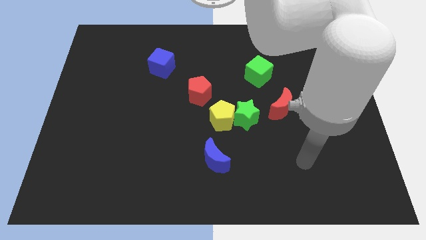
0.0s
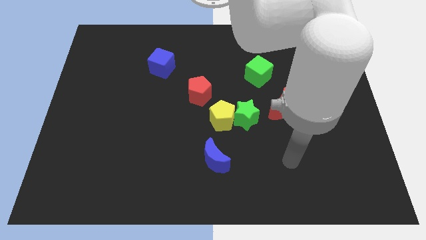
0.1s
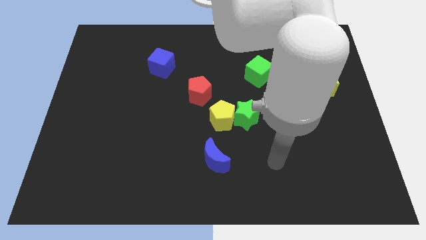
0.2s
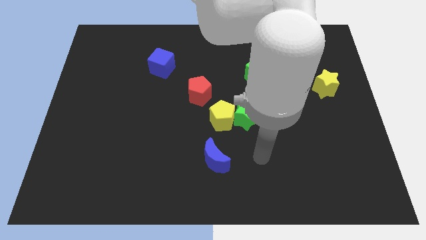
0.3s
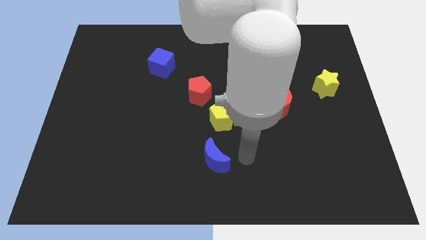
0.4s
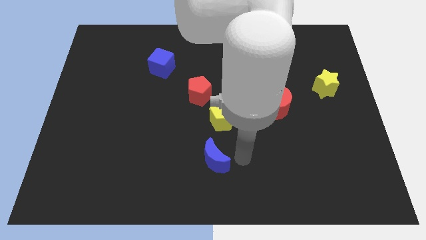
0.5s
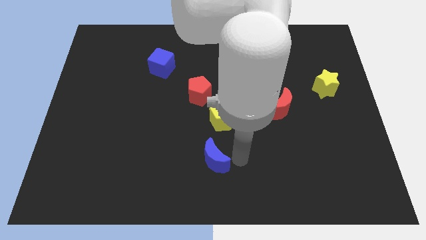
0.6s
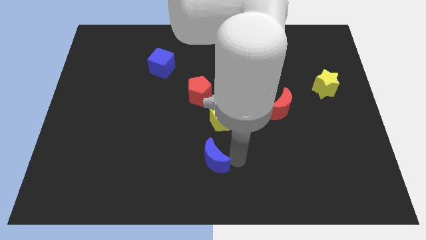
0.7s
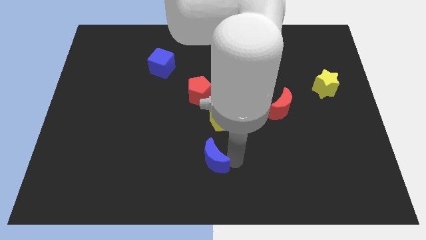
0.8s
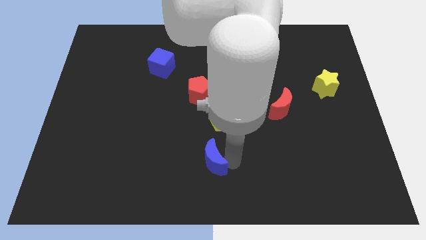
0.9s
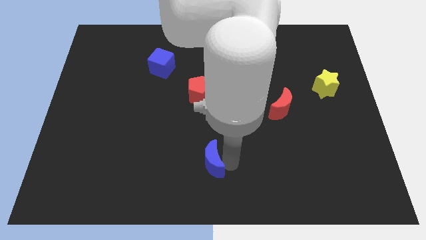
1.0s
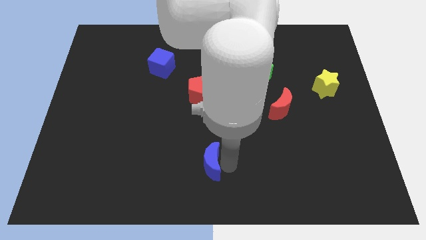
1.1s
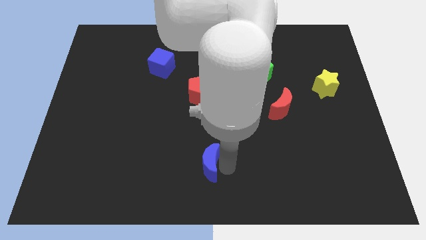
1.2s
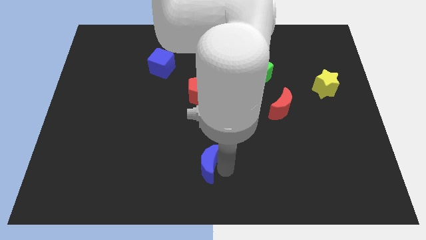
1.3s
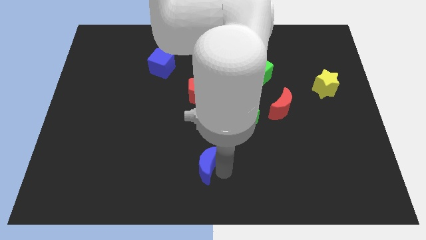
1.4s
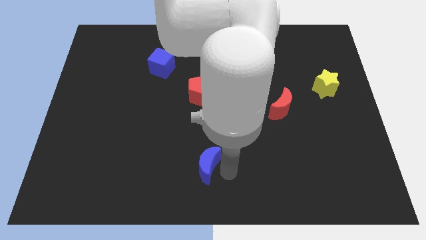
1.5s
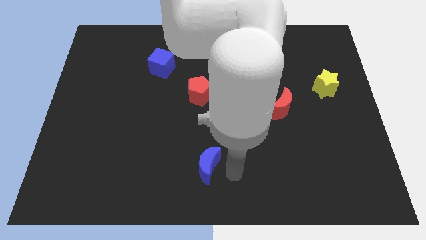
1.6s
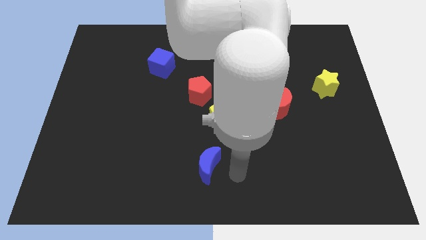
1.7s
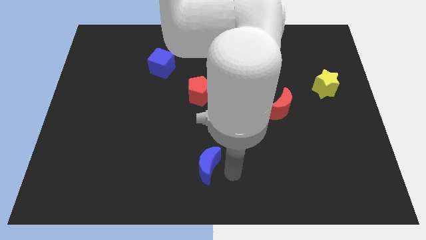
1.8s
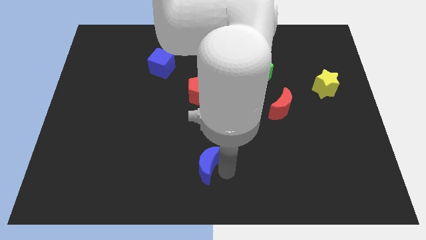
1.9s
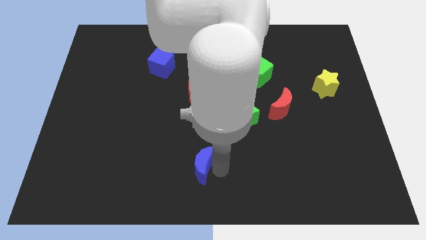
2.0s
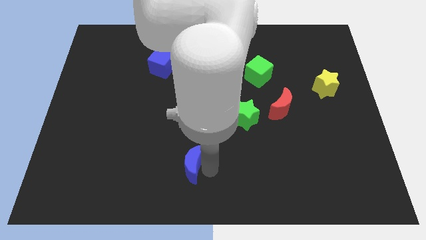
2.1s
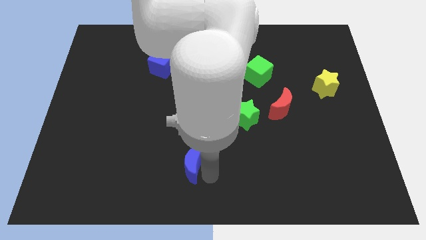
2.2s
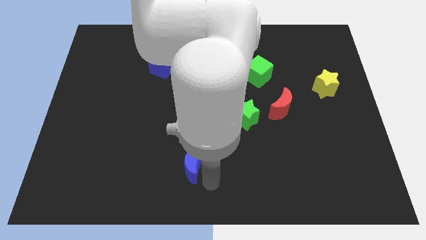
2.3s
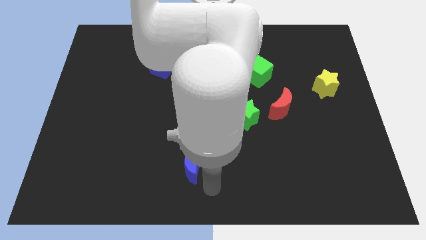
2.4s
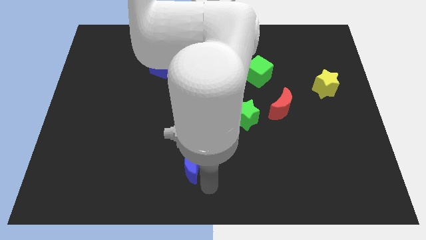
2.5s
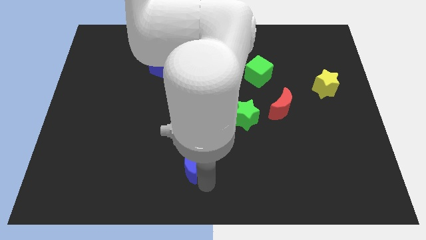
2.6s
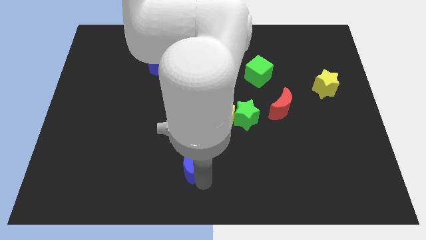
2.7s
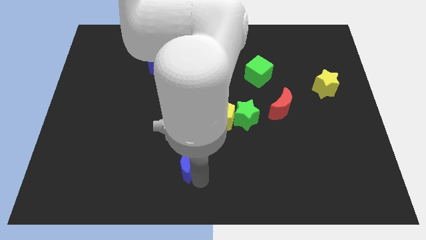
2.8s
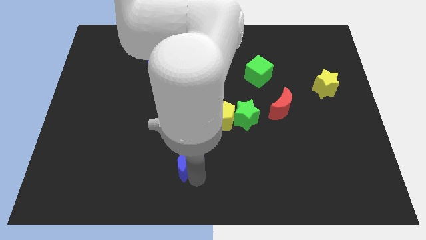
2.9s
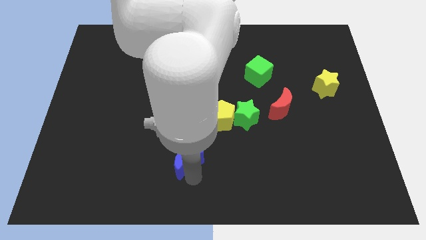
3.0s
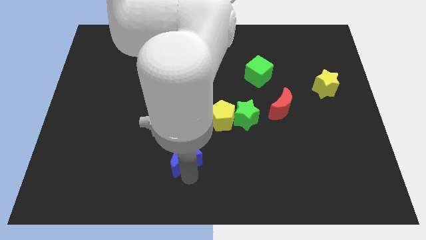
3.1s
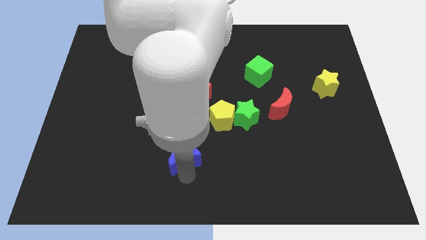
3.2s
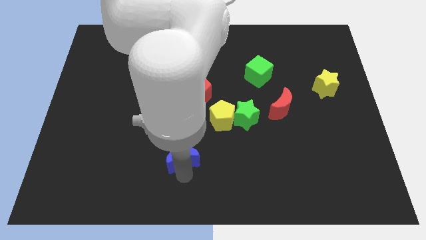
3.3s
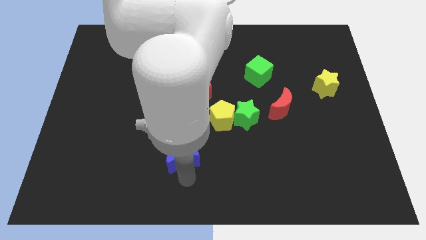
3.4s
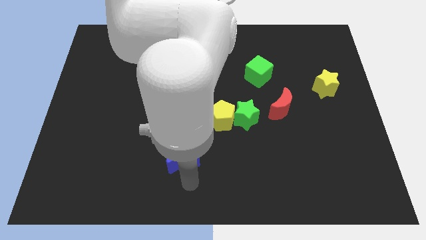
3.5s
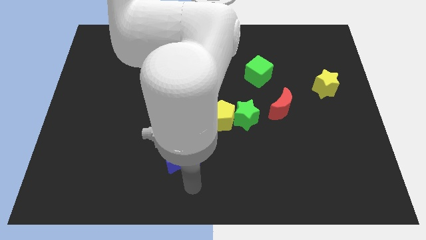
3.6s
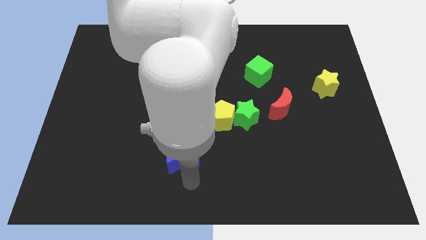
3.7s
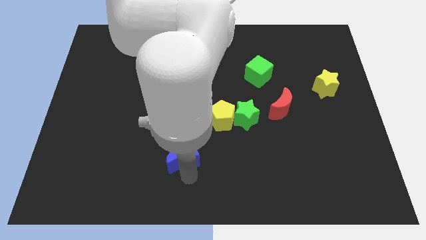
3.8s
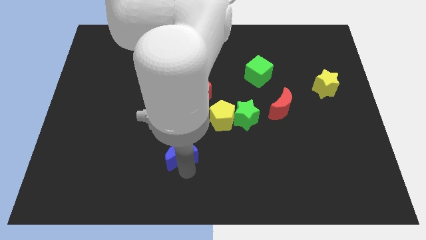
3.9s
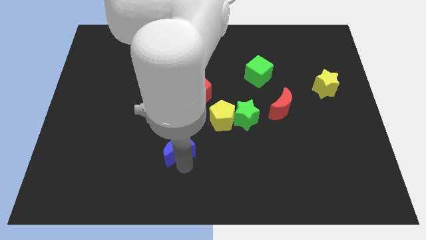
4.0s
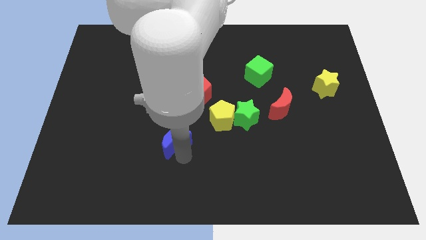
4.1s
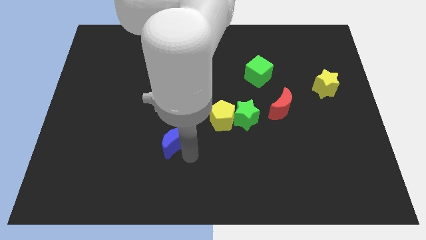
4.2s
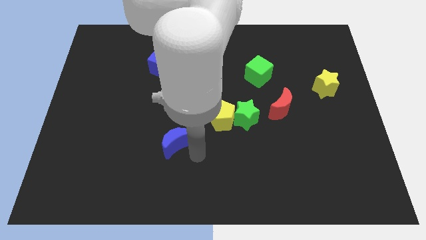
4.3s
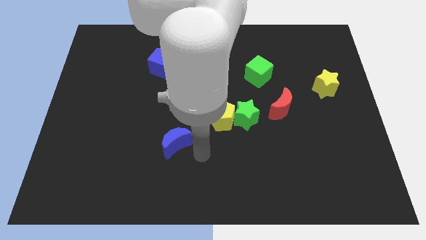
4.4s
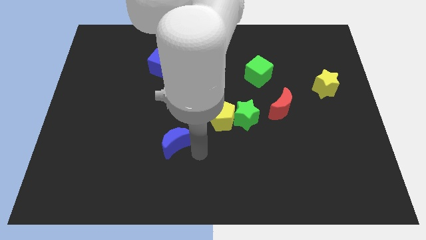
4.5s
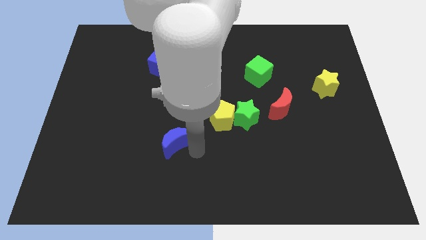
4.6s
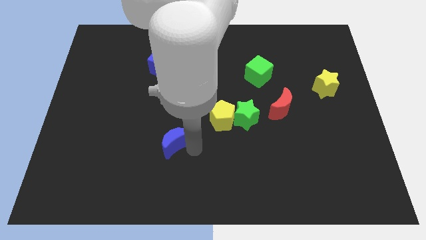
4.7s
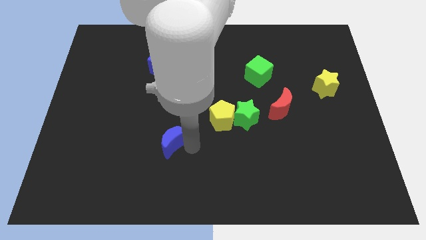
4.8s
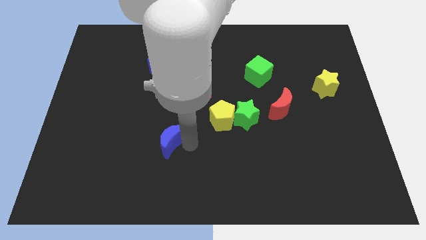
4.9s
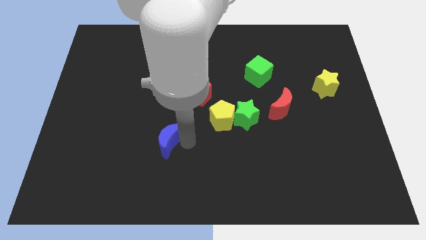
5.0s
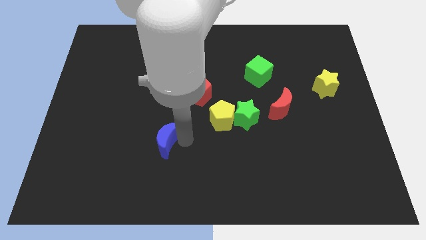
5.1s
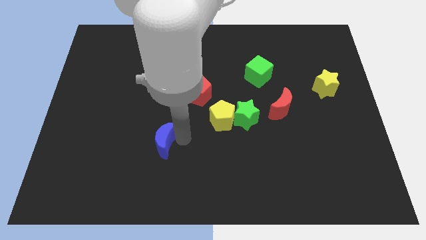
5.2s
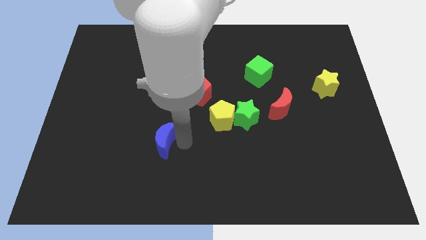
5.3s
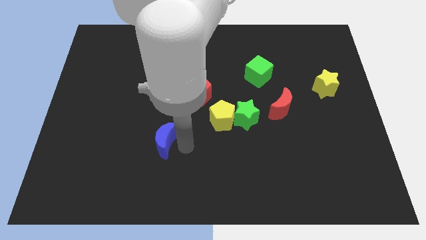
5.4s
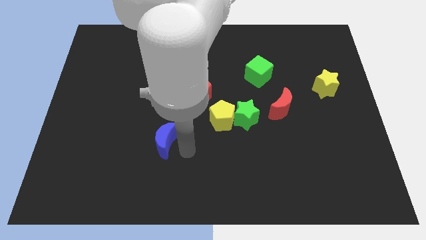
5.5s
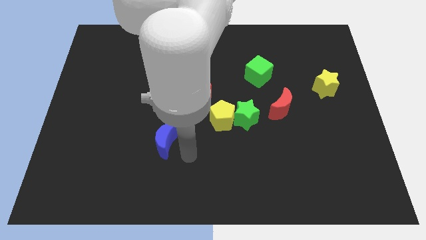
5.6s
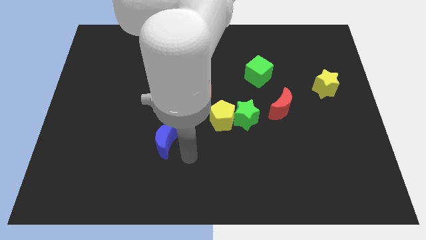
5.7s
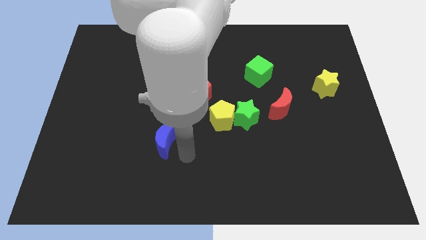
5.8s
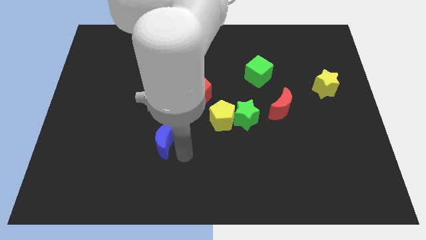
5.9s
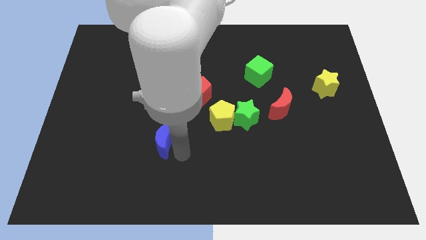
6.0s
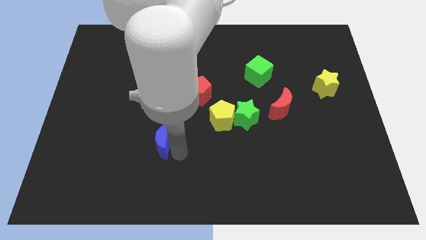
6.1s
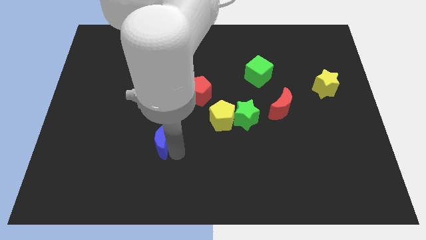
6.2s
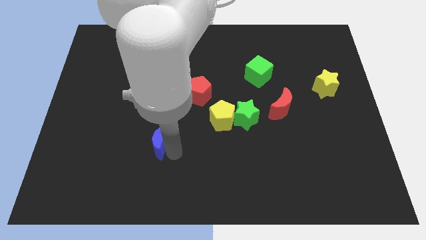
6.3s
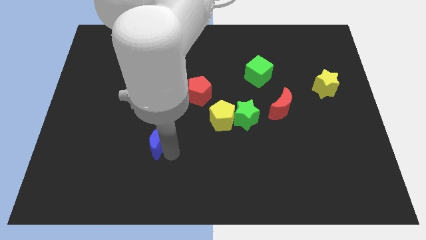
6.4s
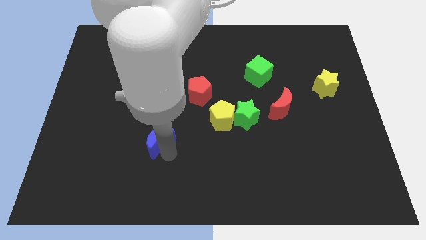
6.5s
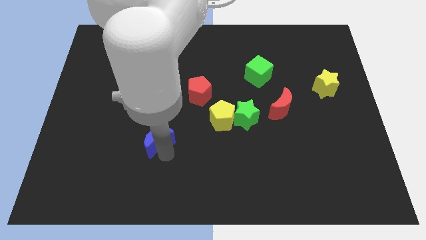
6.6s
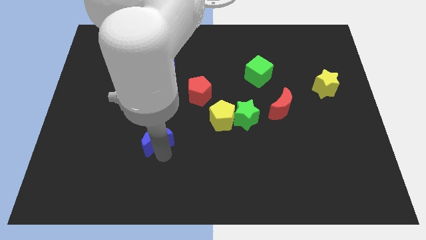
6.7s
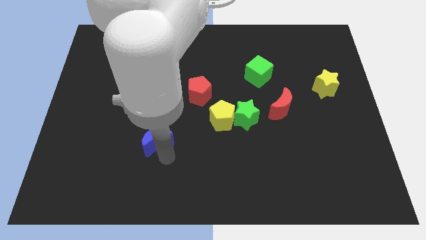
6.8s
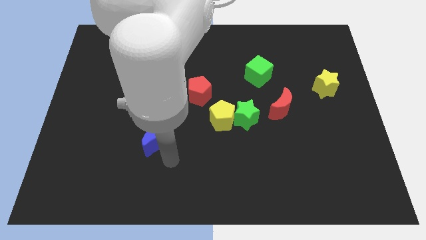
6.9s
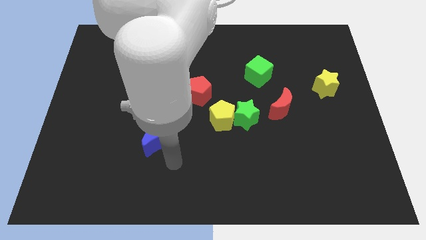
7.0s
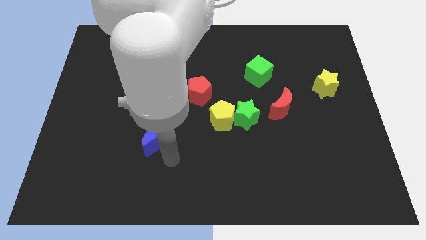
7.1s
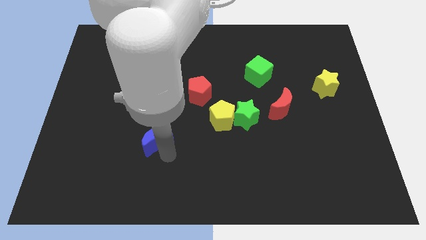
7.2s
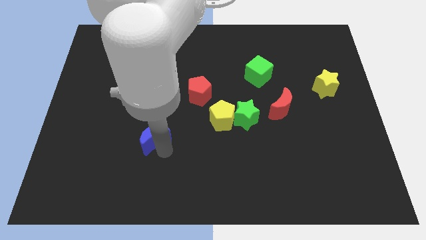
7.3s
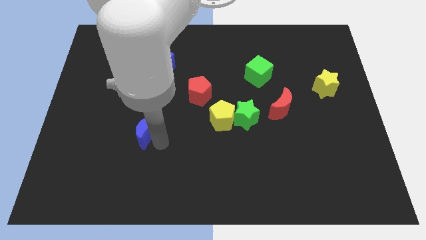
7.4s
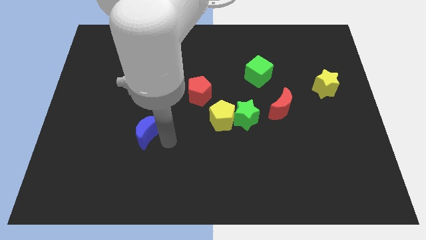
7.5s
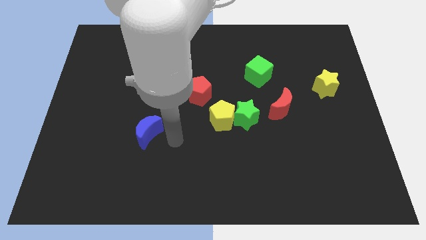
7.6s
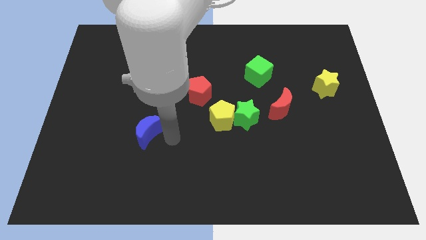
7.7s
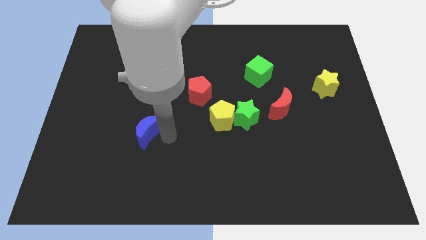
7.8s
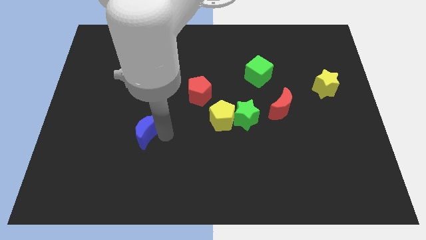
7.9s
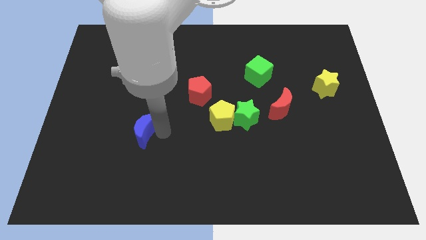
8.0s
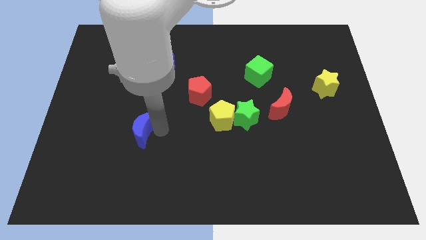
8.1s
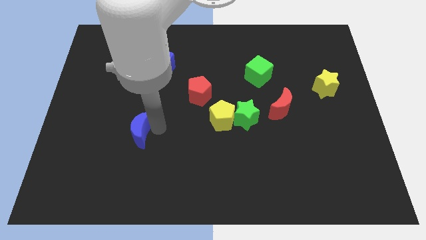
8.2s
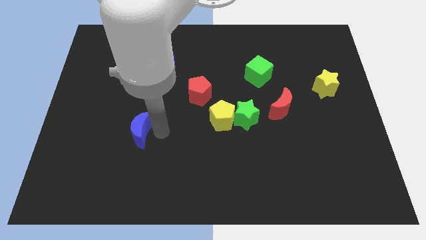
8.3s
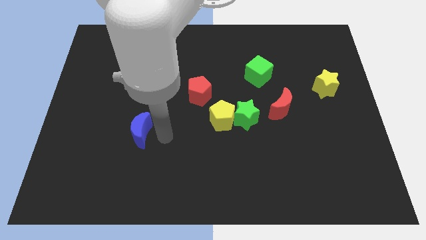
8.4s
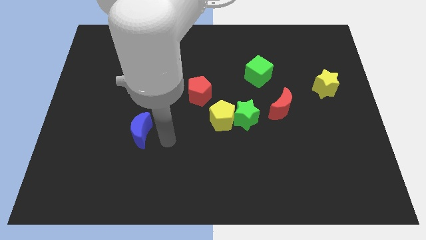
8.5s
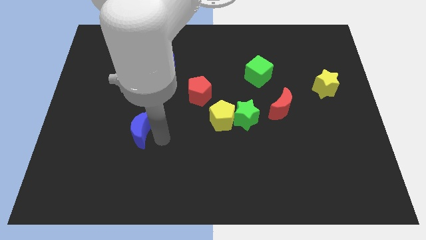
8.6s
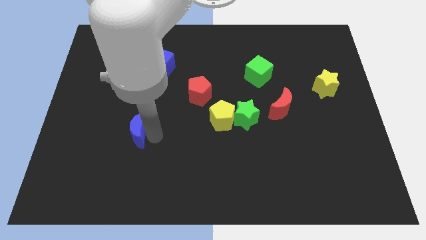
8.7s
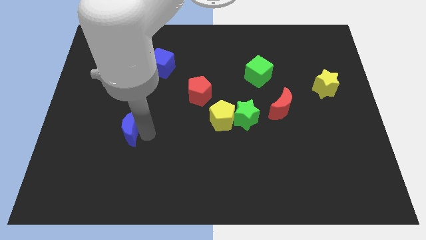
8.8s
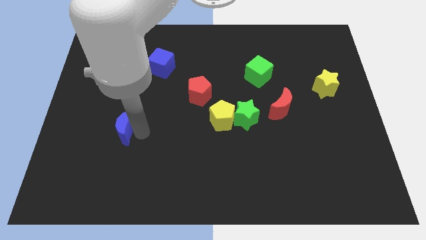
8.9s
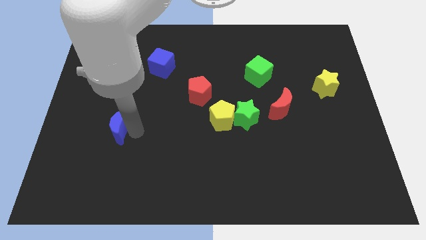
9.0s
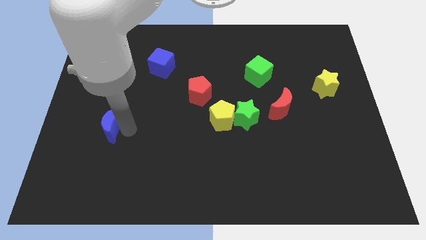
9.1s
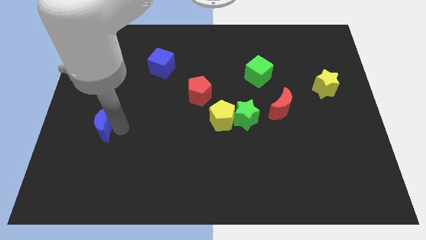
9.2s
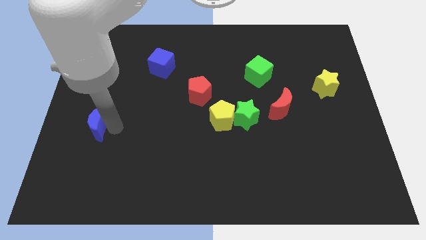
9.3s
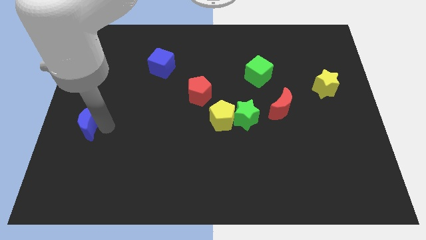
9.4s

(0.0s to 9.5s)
push the blue moon to the left side
